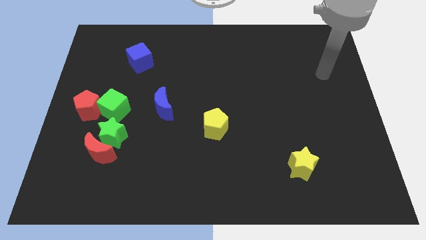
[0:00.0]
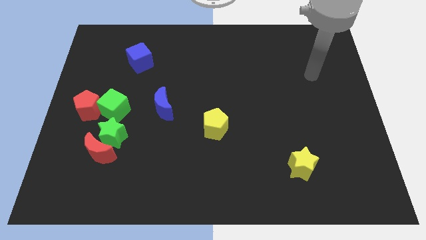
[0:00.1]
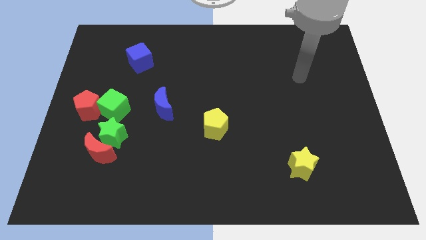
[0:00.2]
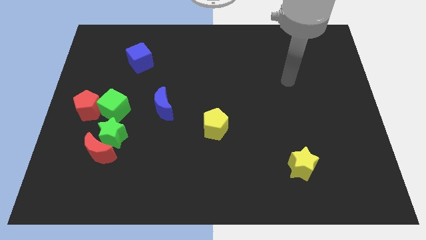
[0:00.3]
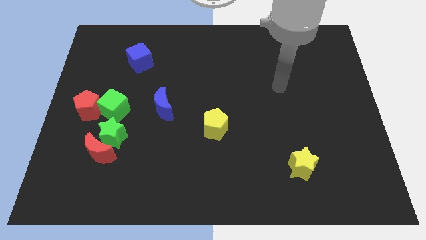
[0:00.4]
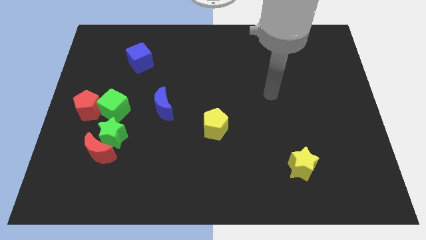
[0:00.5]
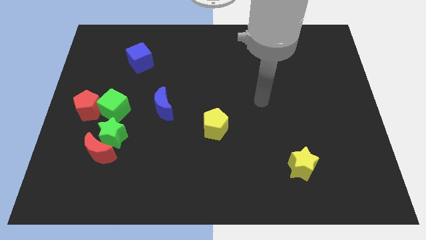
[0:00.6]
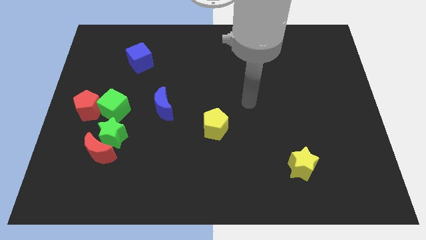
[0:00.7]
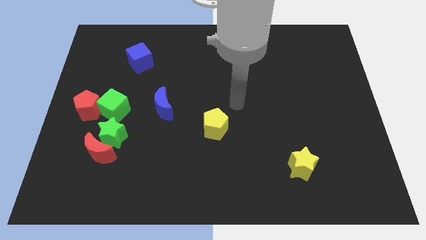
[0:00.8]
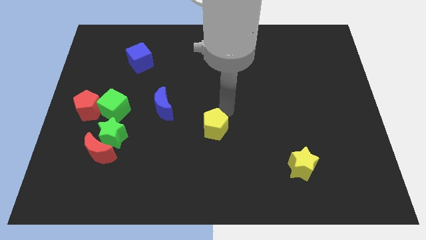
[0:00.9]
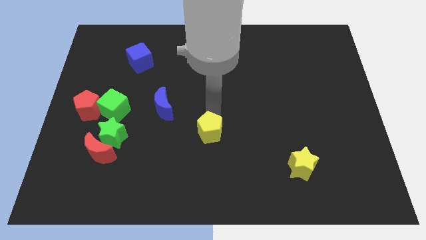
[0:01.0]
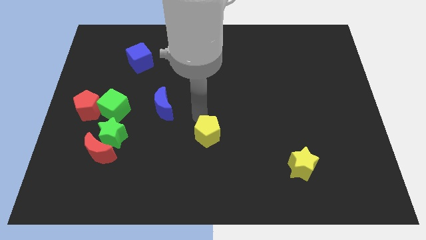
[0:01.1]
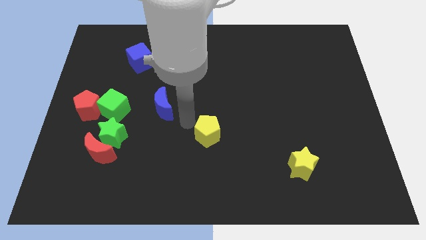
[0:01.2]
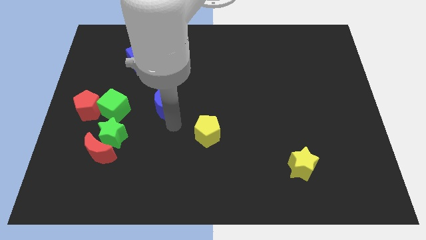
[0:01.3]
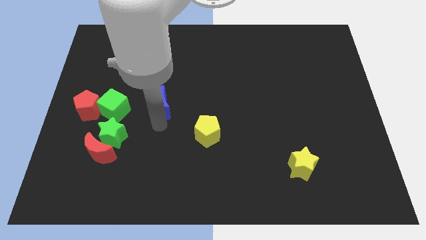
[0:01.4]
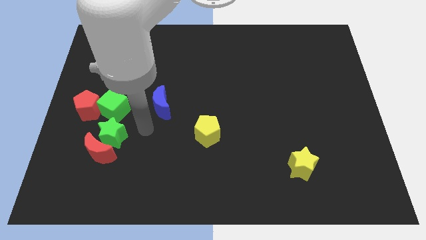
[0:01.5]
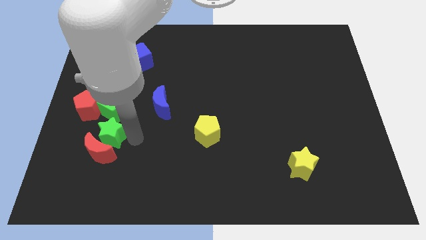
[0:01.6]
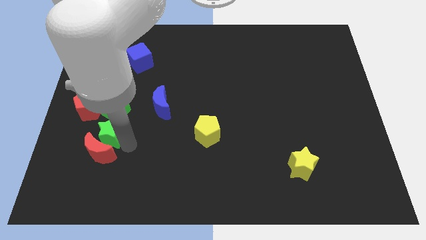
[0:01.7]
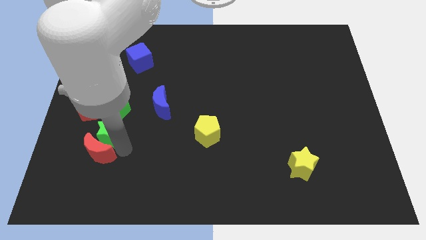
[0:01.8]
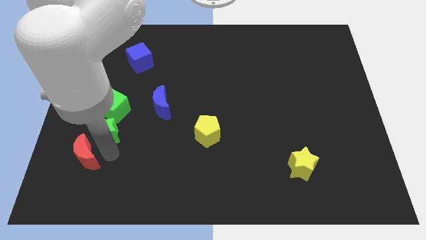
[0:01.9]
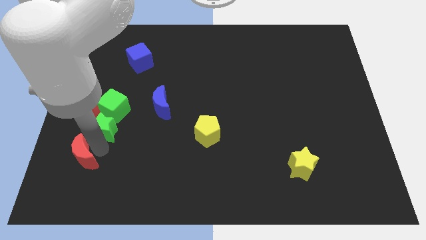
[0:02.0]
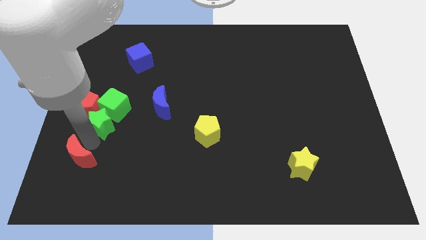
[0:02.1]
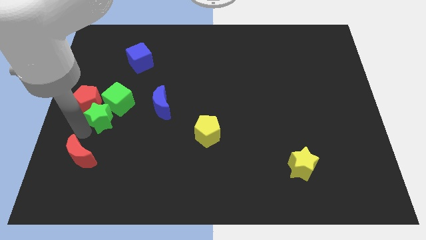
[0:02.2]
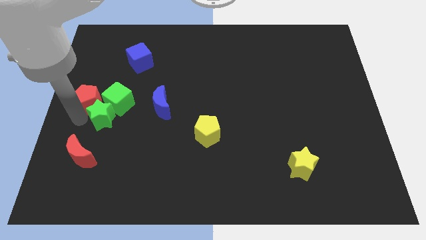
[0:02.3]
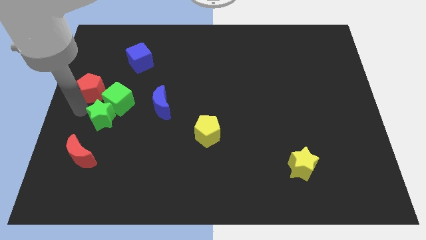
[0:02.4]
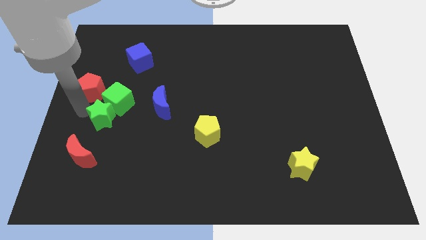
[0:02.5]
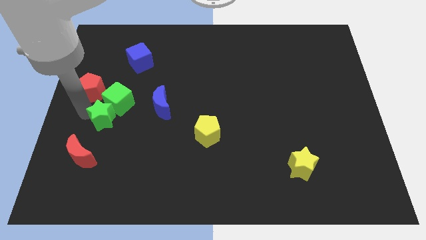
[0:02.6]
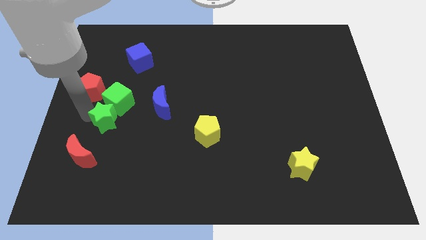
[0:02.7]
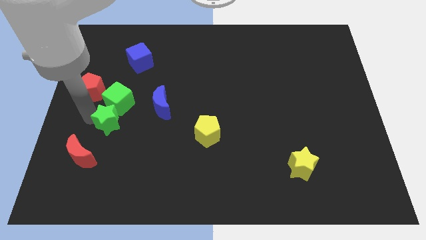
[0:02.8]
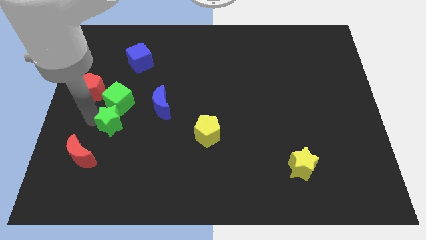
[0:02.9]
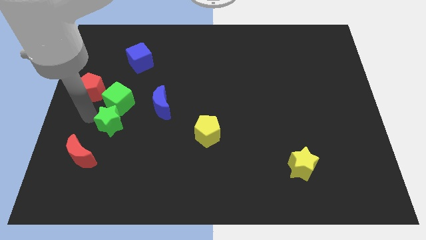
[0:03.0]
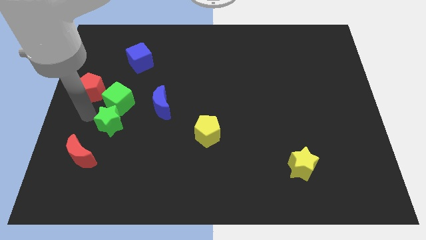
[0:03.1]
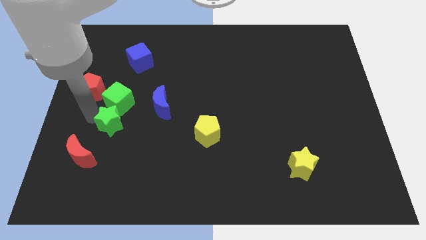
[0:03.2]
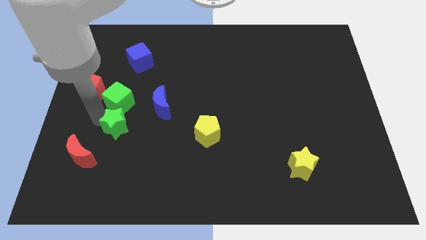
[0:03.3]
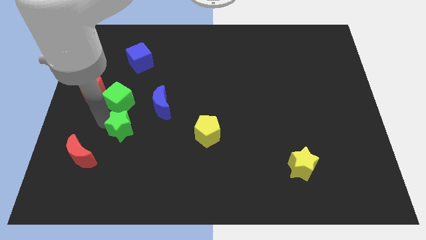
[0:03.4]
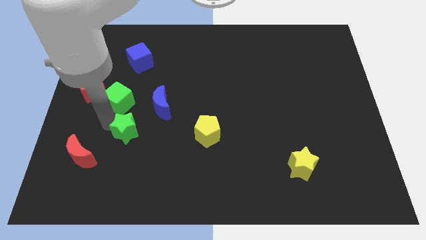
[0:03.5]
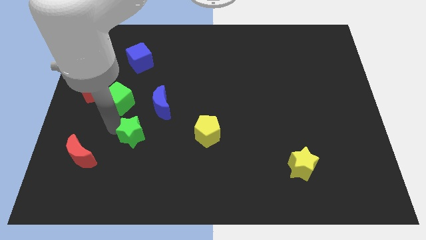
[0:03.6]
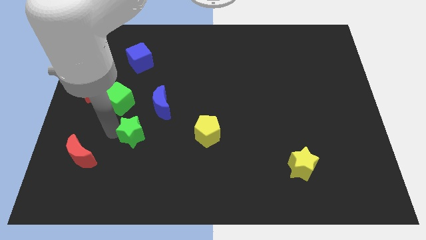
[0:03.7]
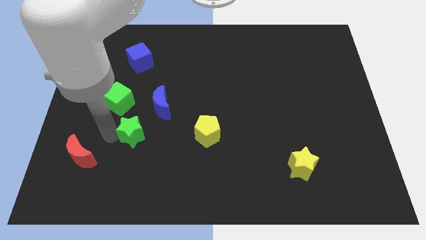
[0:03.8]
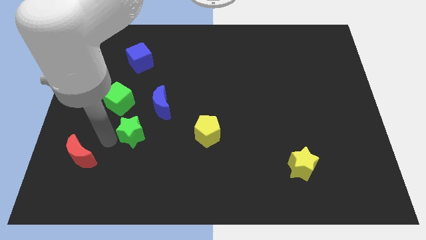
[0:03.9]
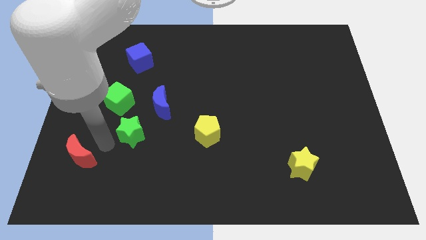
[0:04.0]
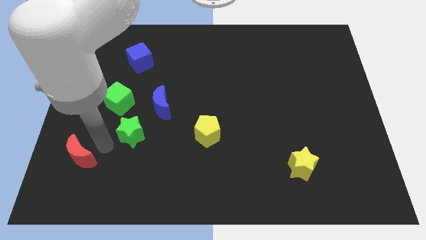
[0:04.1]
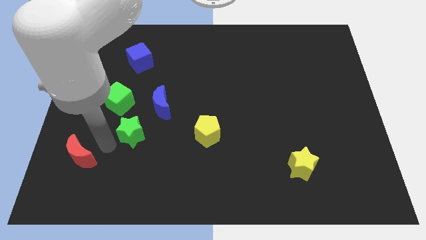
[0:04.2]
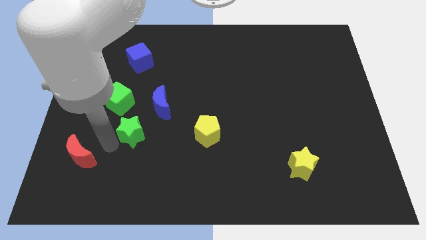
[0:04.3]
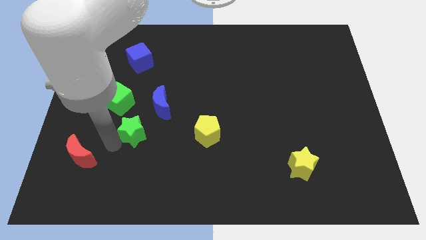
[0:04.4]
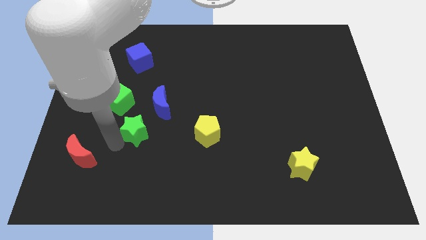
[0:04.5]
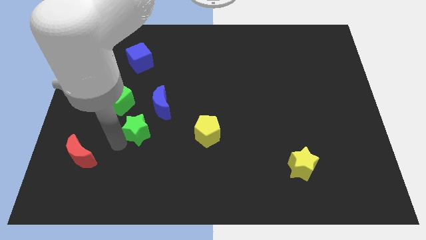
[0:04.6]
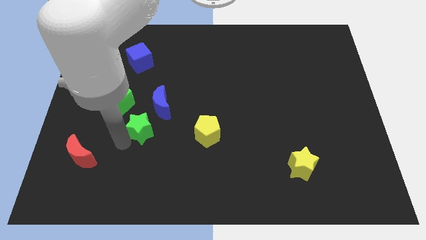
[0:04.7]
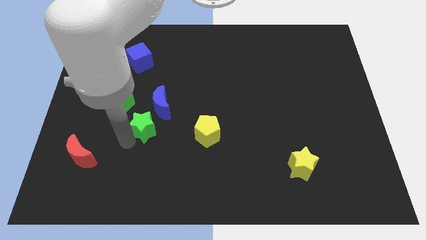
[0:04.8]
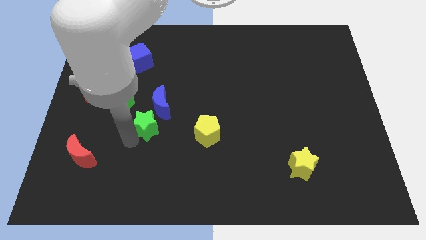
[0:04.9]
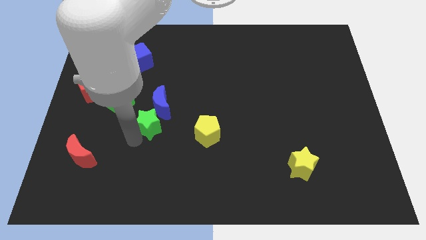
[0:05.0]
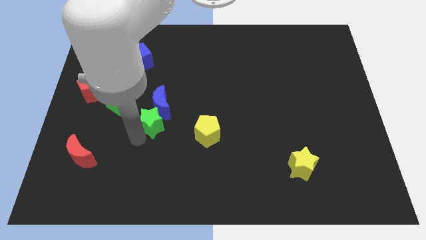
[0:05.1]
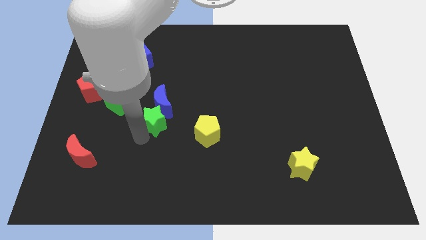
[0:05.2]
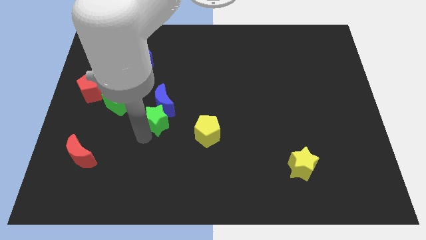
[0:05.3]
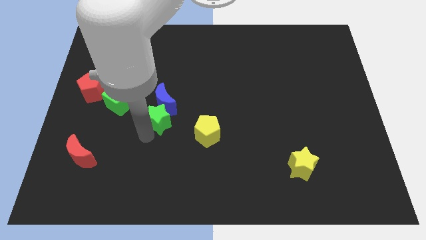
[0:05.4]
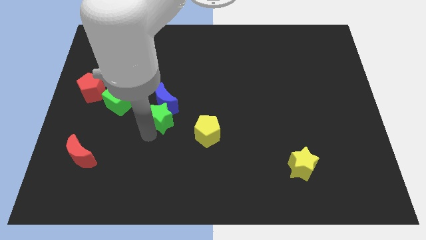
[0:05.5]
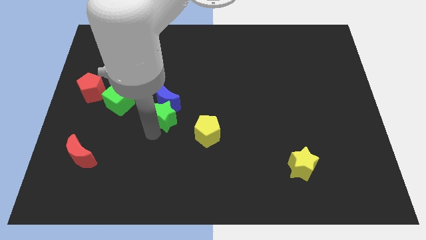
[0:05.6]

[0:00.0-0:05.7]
push the green star to the center of the board
